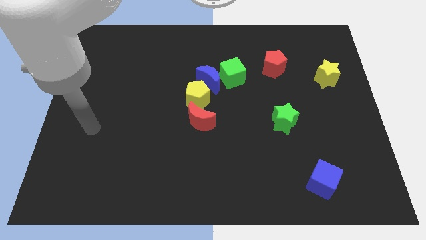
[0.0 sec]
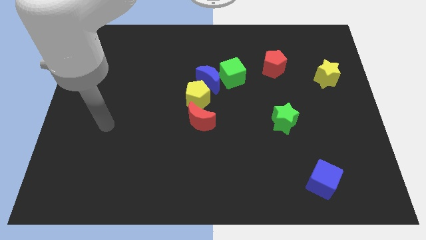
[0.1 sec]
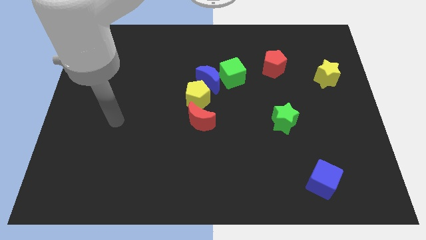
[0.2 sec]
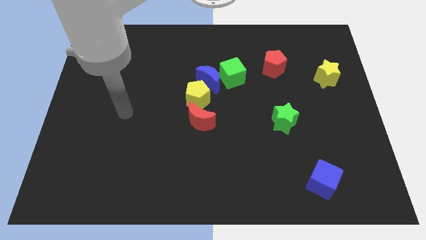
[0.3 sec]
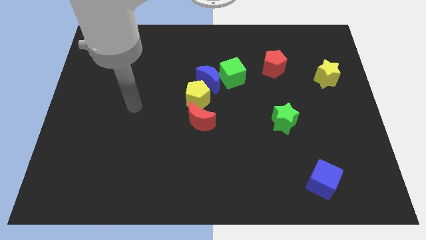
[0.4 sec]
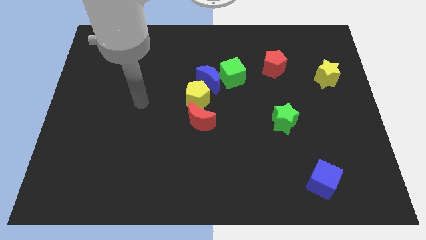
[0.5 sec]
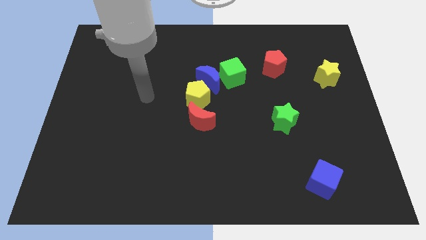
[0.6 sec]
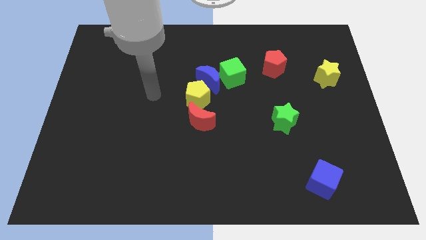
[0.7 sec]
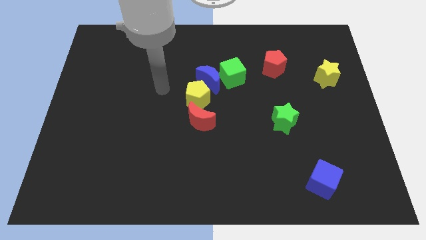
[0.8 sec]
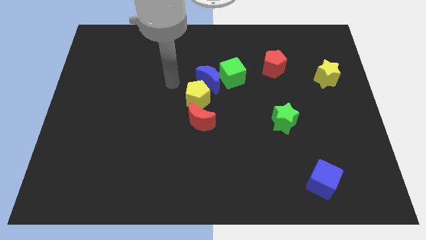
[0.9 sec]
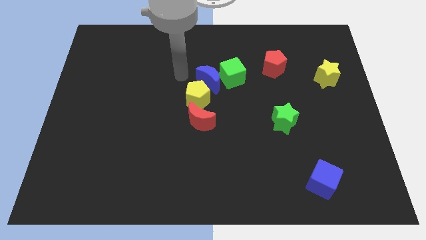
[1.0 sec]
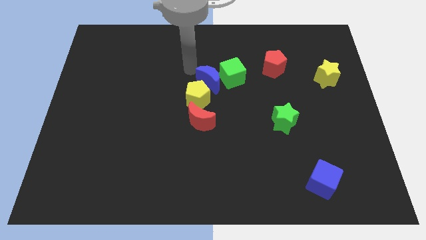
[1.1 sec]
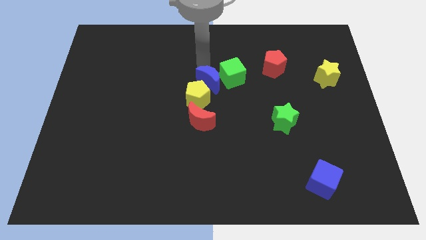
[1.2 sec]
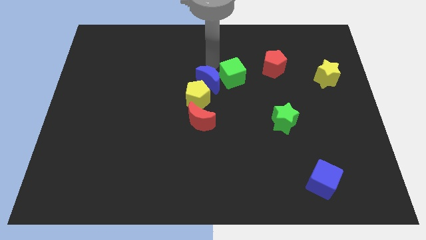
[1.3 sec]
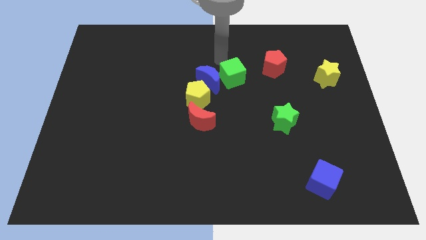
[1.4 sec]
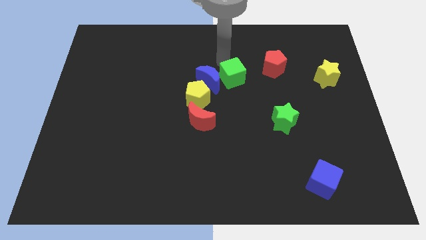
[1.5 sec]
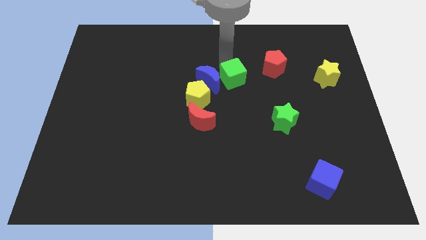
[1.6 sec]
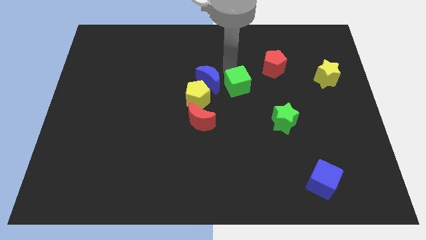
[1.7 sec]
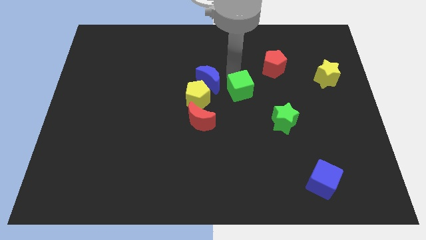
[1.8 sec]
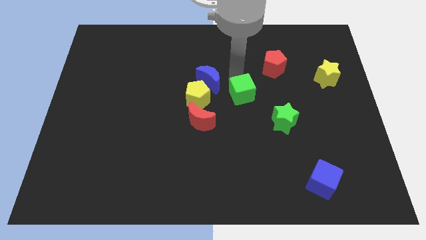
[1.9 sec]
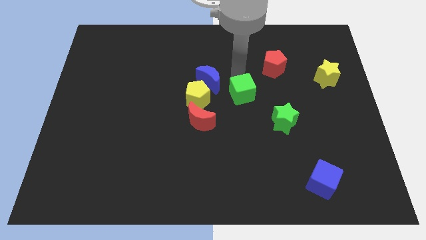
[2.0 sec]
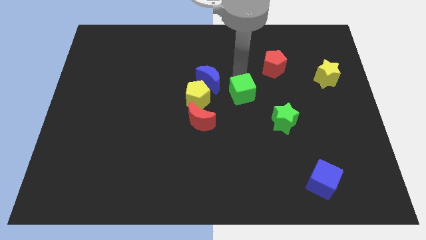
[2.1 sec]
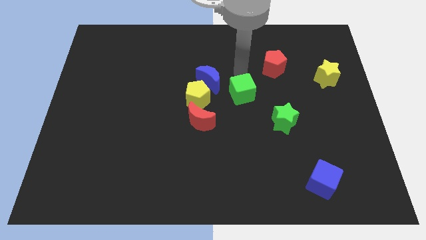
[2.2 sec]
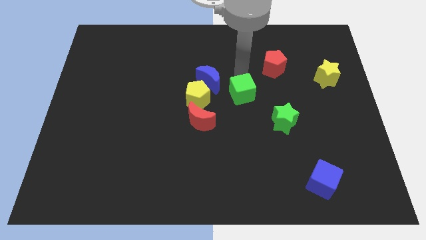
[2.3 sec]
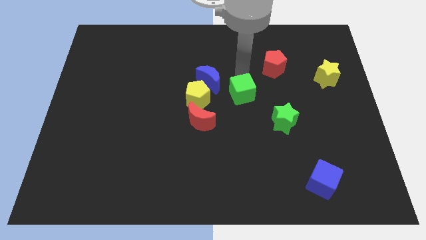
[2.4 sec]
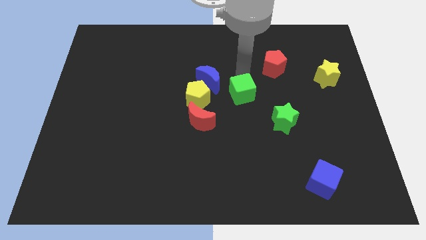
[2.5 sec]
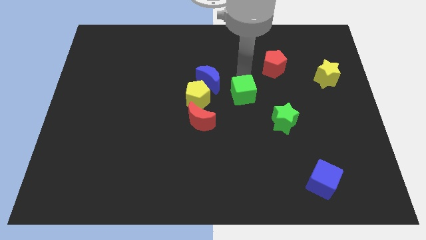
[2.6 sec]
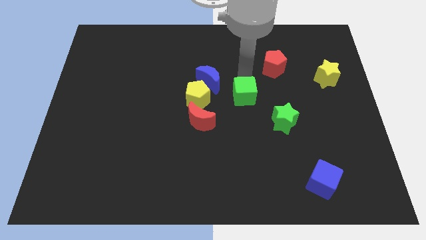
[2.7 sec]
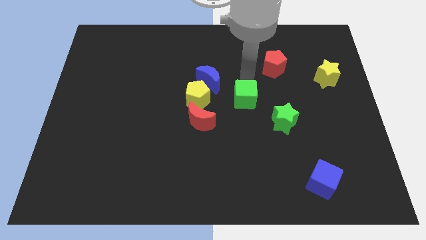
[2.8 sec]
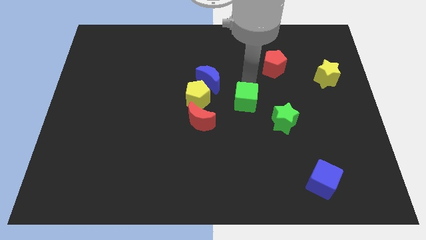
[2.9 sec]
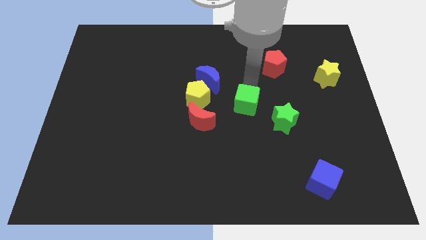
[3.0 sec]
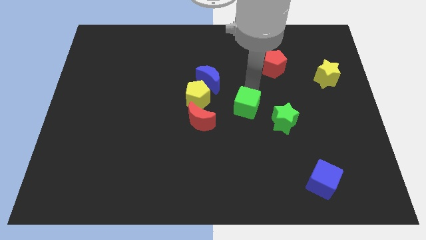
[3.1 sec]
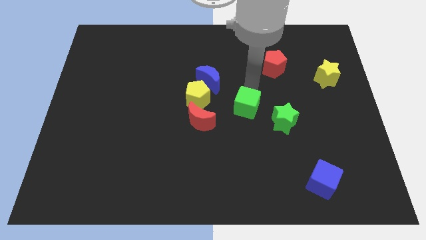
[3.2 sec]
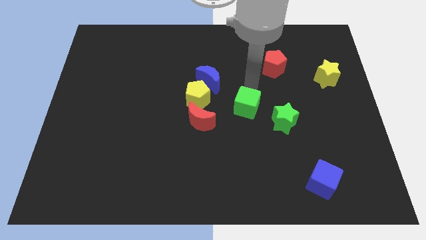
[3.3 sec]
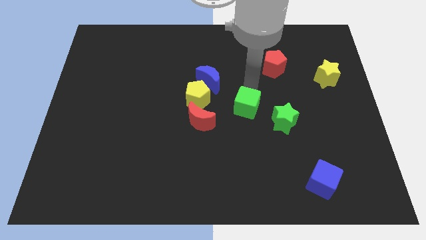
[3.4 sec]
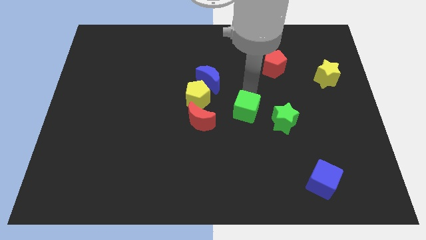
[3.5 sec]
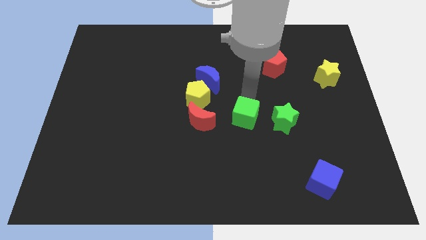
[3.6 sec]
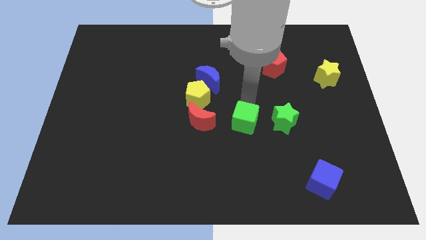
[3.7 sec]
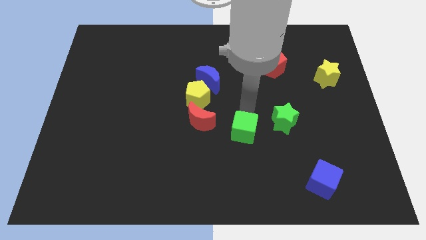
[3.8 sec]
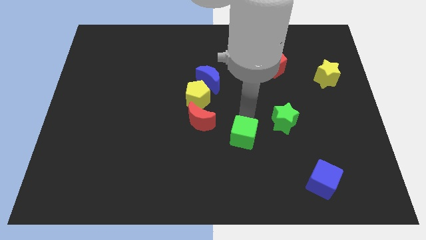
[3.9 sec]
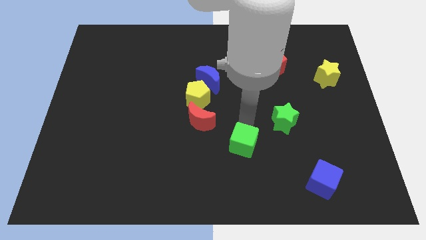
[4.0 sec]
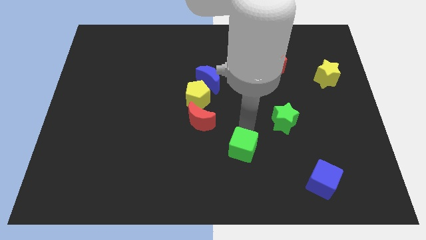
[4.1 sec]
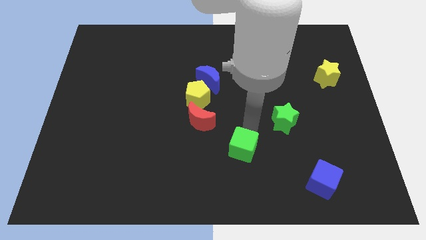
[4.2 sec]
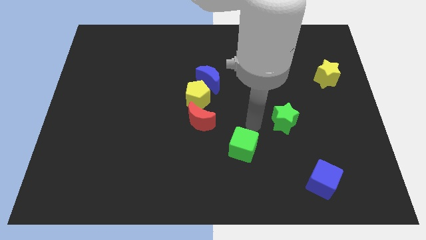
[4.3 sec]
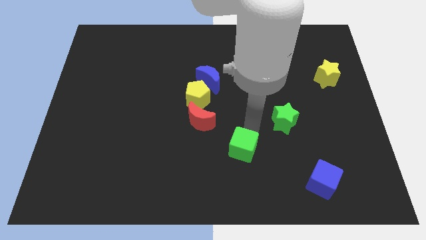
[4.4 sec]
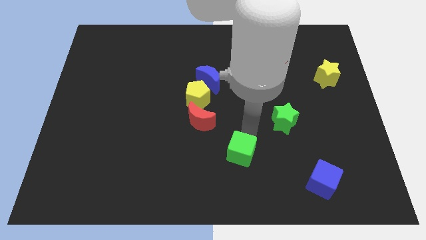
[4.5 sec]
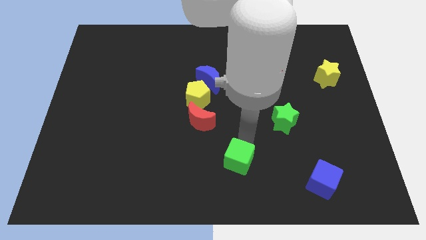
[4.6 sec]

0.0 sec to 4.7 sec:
push the green cube to the bottom side

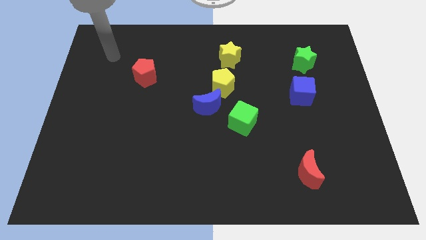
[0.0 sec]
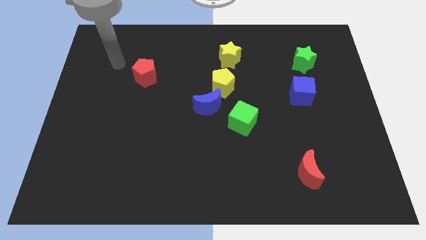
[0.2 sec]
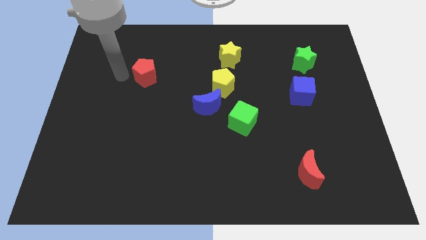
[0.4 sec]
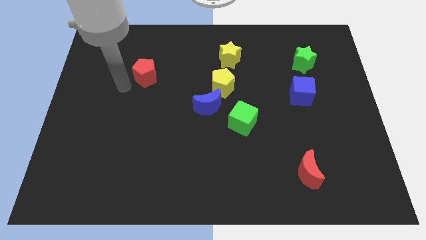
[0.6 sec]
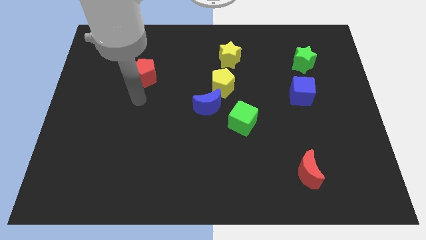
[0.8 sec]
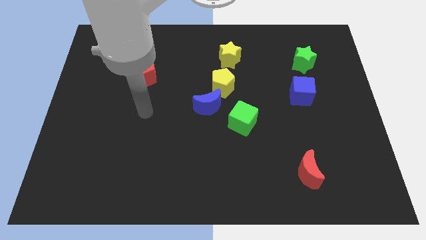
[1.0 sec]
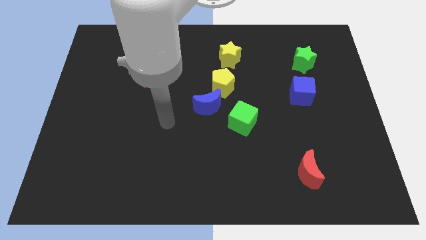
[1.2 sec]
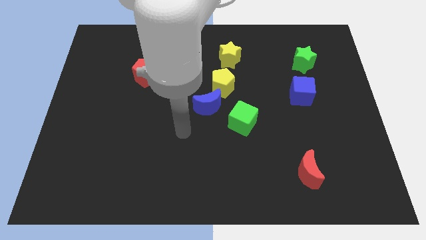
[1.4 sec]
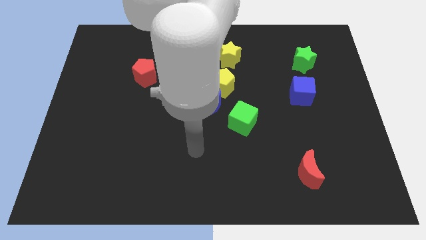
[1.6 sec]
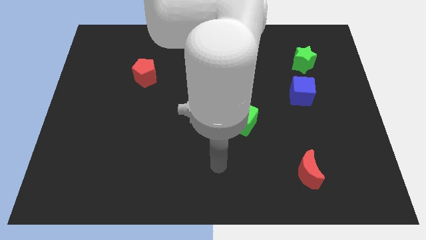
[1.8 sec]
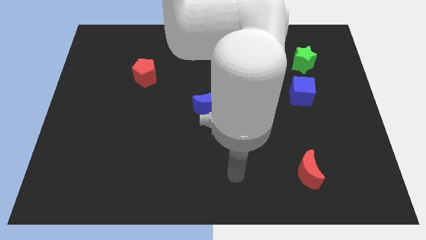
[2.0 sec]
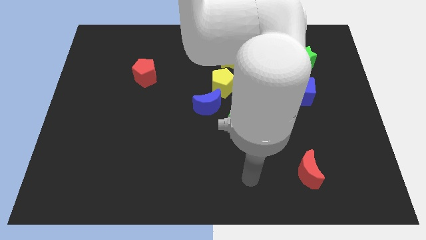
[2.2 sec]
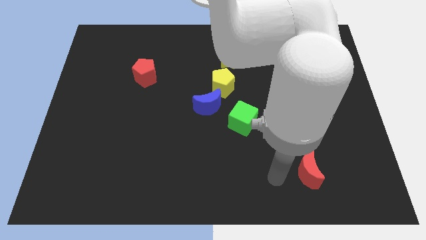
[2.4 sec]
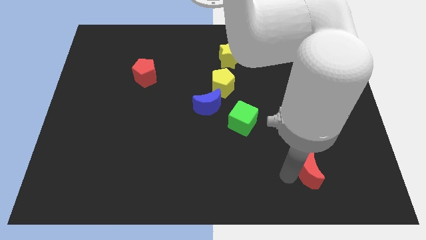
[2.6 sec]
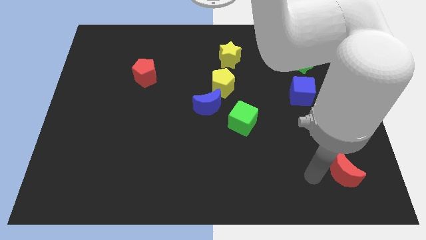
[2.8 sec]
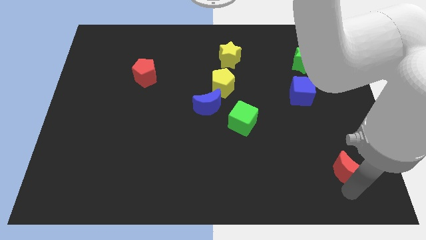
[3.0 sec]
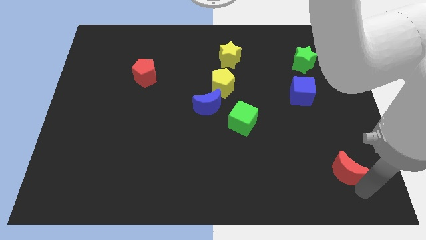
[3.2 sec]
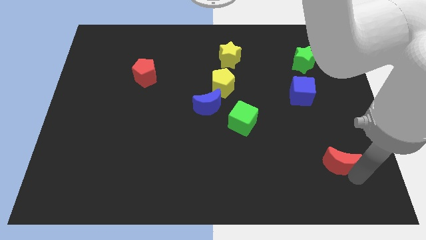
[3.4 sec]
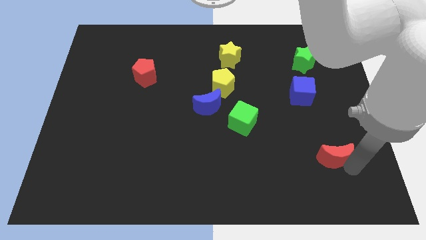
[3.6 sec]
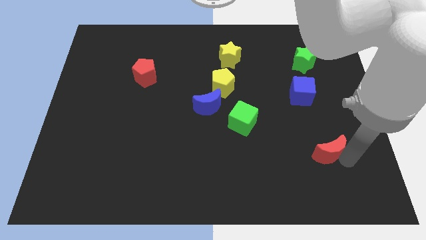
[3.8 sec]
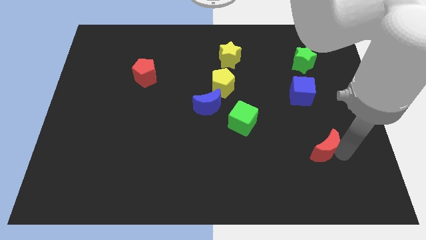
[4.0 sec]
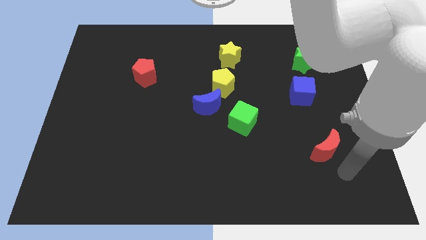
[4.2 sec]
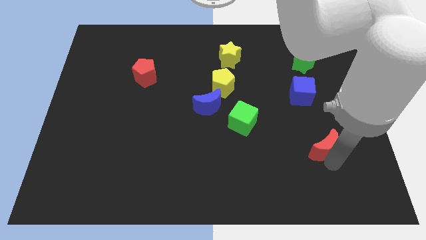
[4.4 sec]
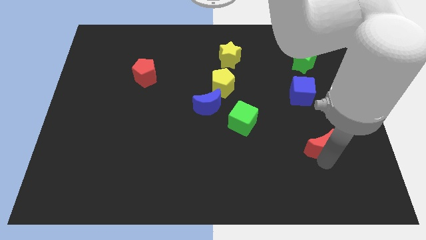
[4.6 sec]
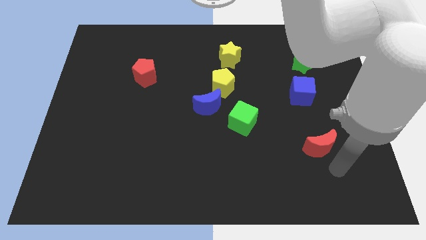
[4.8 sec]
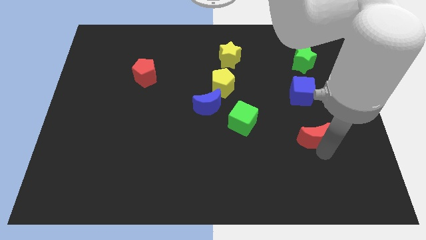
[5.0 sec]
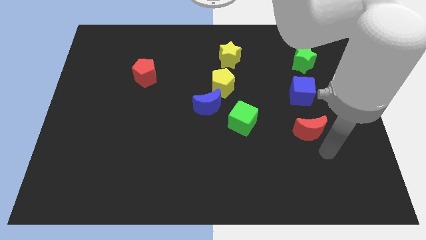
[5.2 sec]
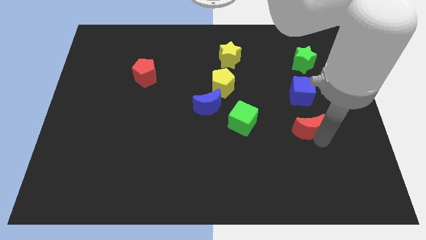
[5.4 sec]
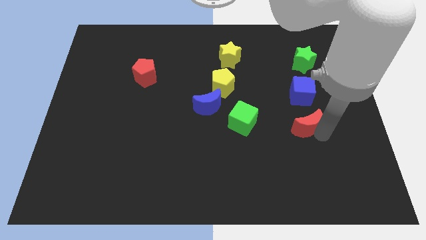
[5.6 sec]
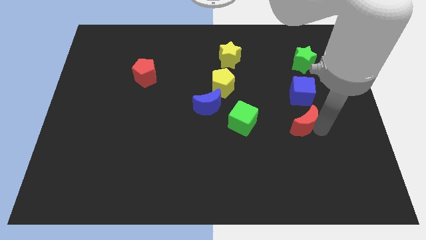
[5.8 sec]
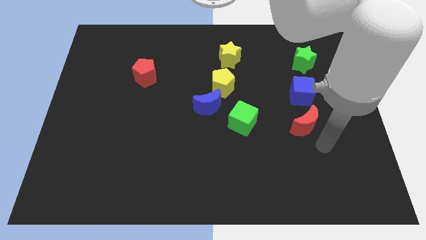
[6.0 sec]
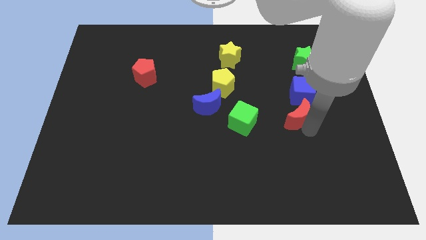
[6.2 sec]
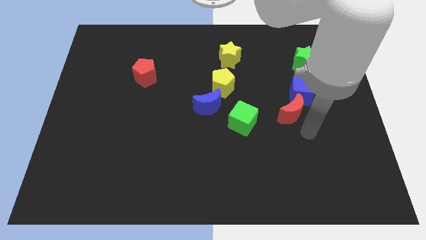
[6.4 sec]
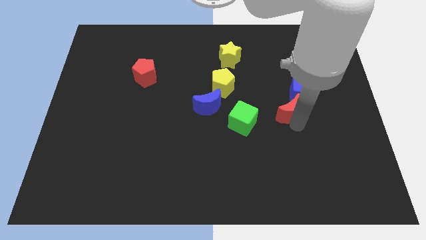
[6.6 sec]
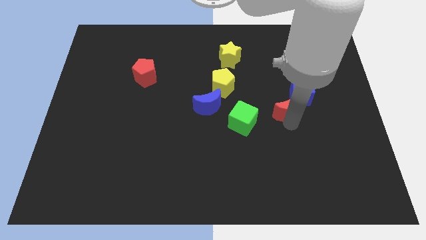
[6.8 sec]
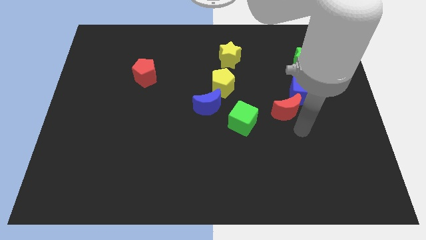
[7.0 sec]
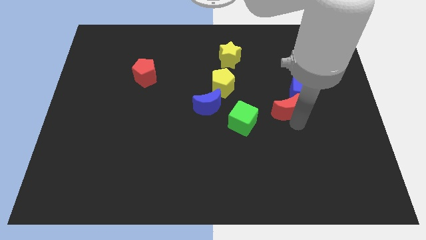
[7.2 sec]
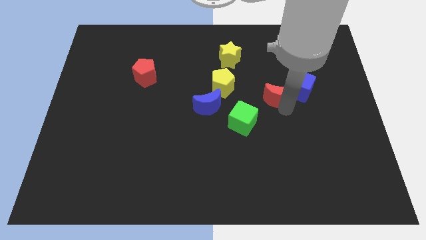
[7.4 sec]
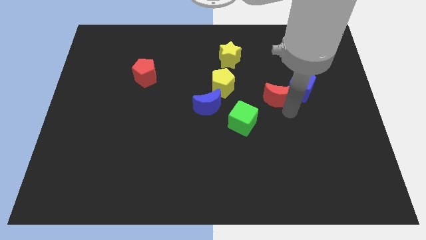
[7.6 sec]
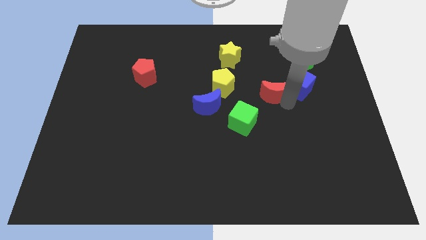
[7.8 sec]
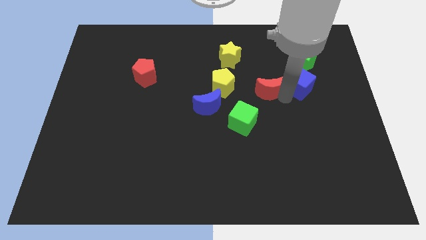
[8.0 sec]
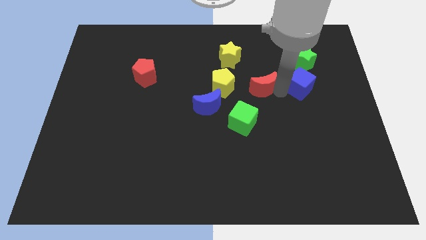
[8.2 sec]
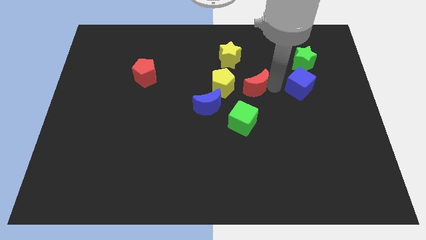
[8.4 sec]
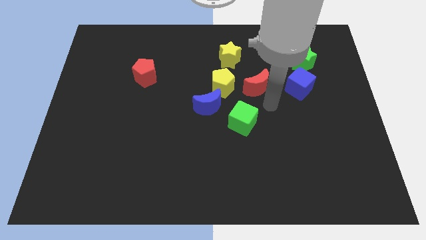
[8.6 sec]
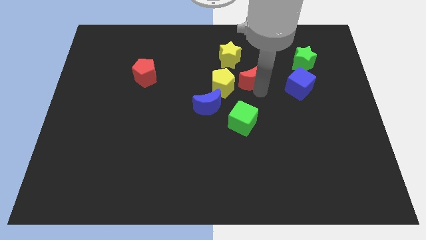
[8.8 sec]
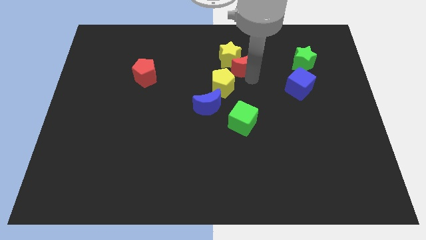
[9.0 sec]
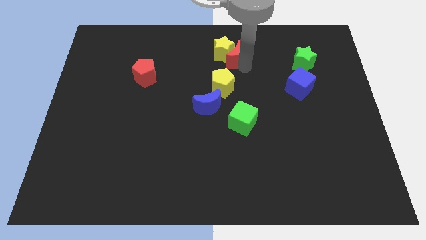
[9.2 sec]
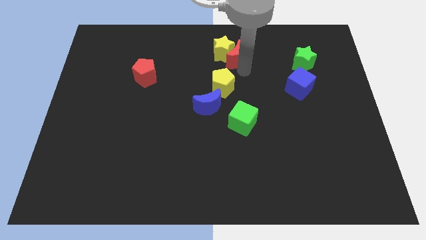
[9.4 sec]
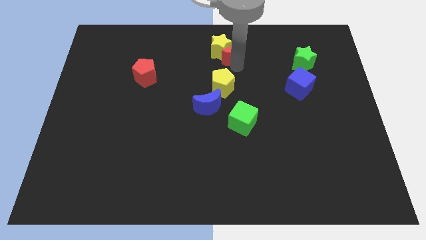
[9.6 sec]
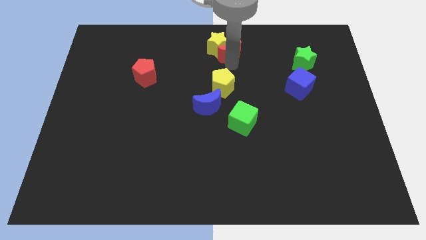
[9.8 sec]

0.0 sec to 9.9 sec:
put the red moon to the top
